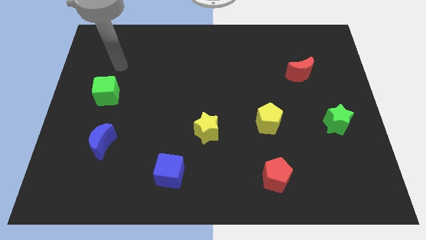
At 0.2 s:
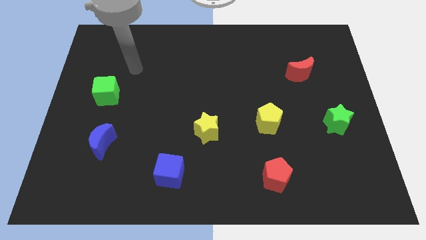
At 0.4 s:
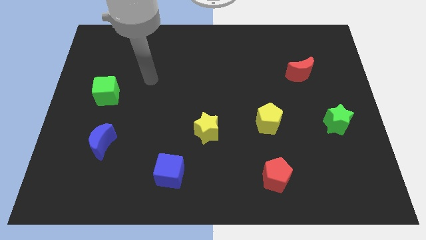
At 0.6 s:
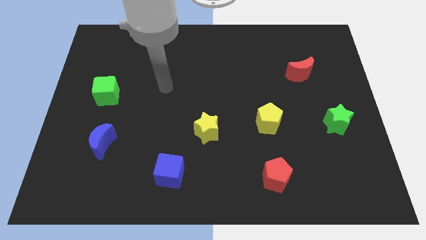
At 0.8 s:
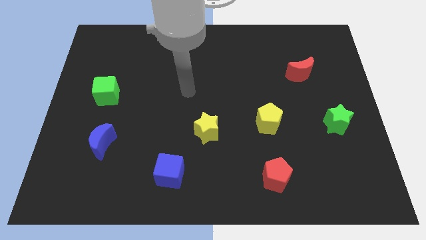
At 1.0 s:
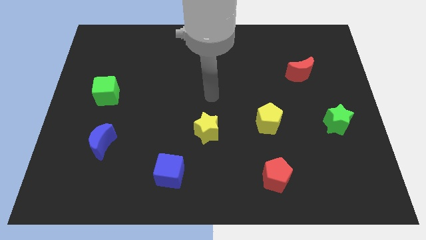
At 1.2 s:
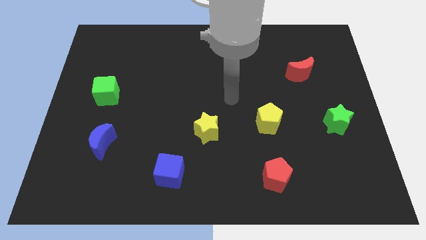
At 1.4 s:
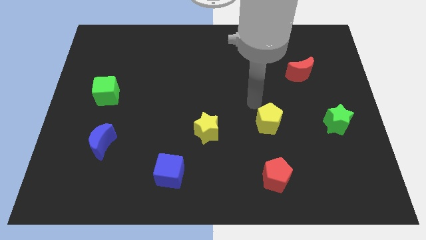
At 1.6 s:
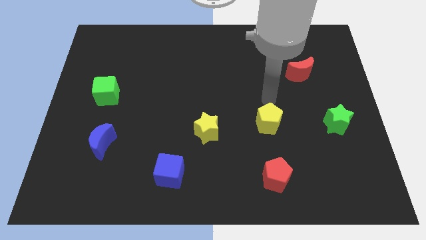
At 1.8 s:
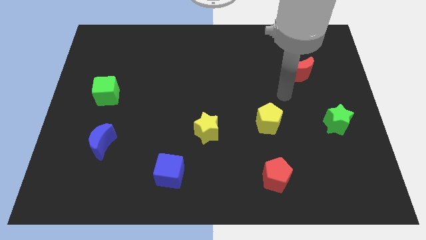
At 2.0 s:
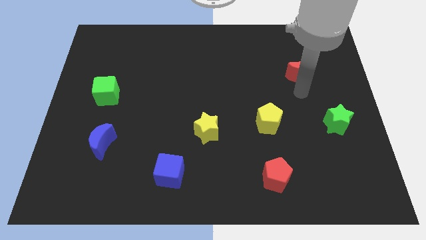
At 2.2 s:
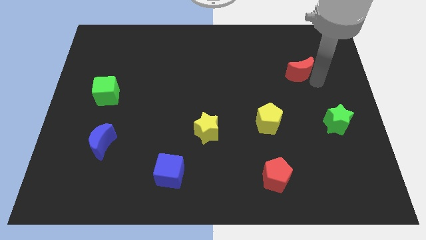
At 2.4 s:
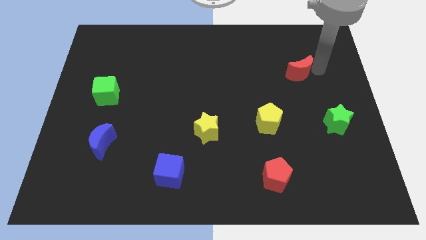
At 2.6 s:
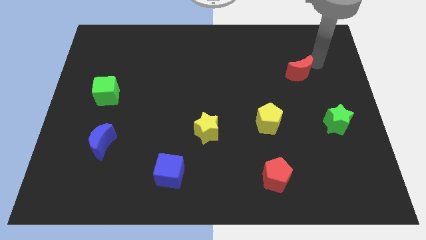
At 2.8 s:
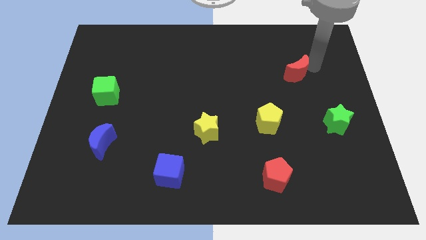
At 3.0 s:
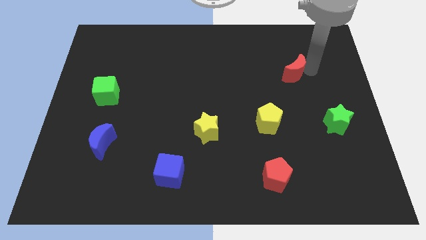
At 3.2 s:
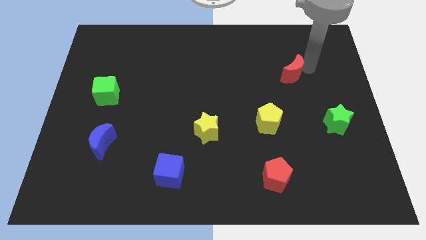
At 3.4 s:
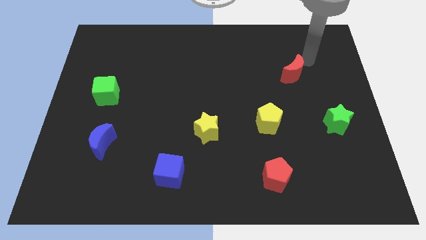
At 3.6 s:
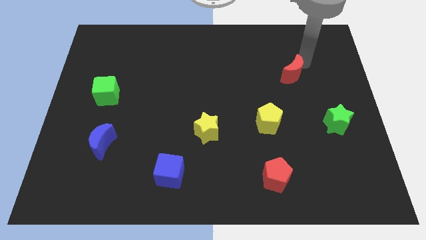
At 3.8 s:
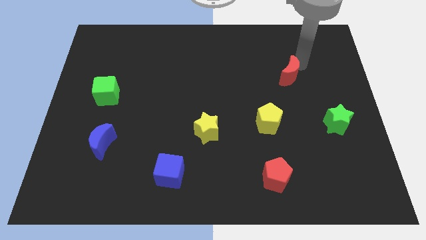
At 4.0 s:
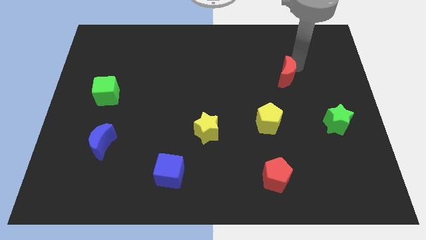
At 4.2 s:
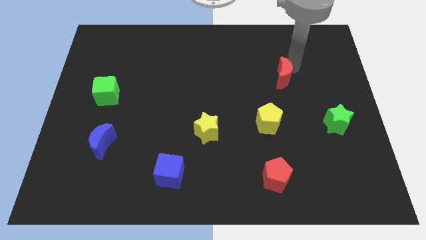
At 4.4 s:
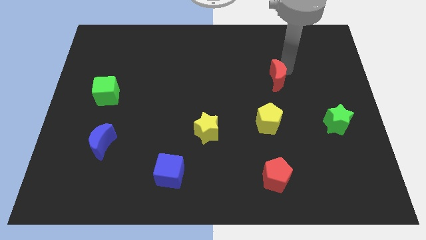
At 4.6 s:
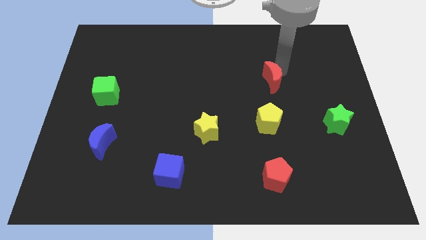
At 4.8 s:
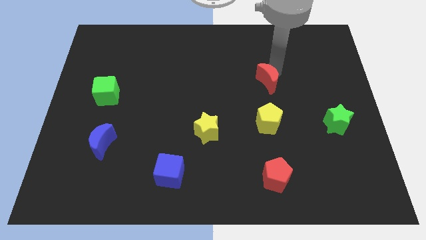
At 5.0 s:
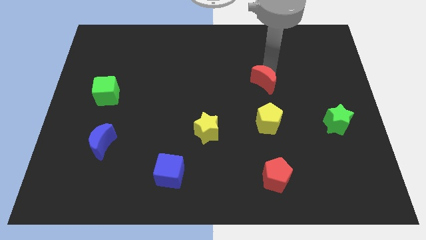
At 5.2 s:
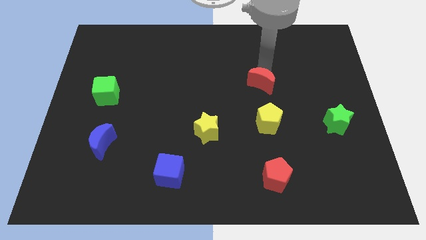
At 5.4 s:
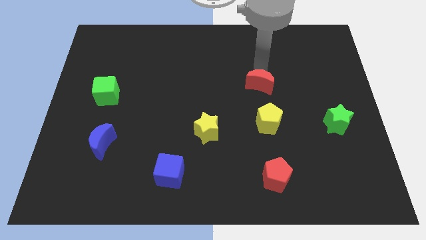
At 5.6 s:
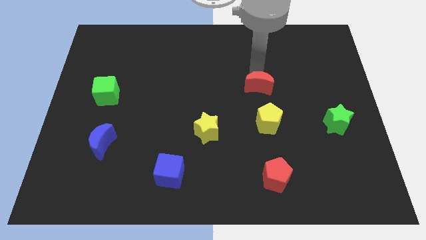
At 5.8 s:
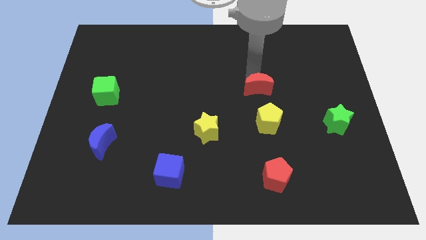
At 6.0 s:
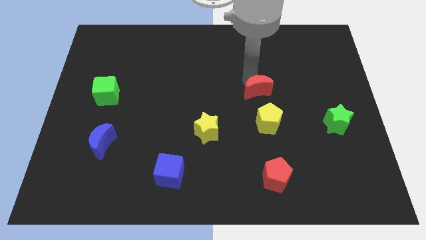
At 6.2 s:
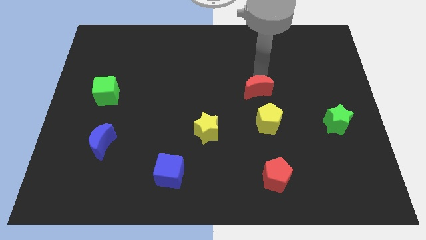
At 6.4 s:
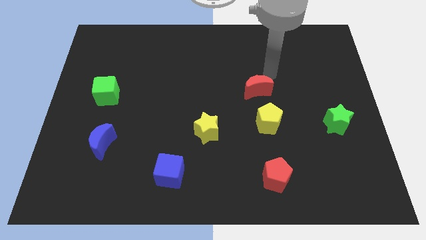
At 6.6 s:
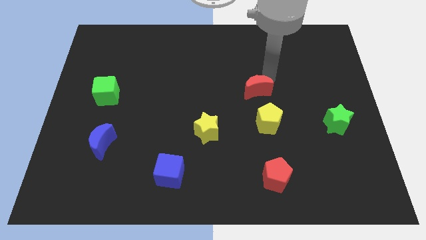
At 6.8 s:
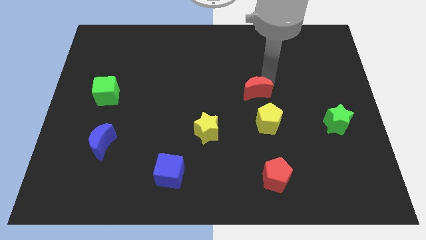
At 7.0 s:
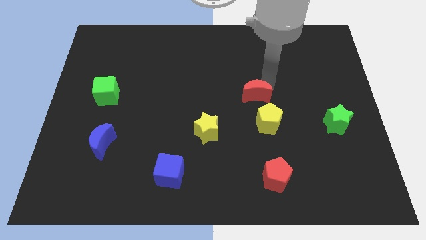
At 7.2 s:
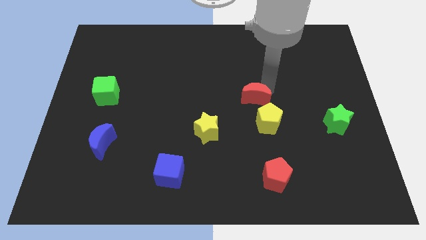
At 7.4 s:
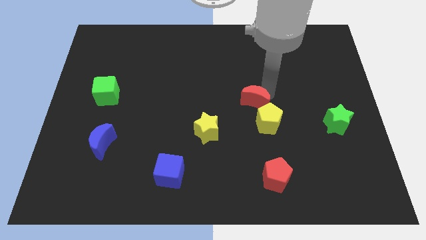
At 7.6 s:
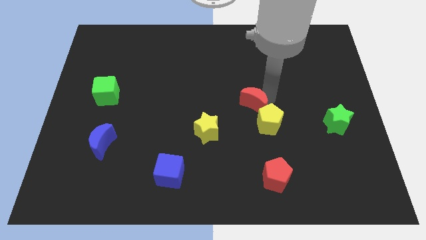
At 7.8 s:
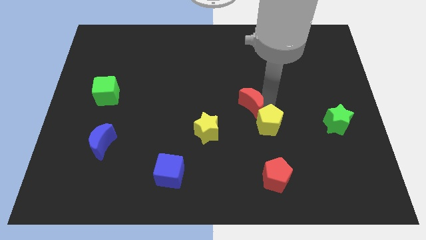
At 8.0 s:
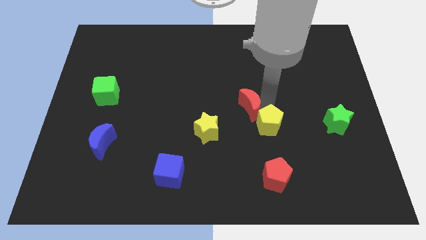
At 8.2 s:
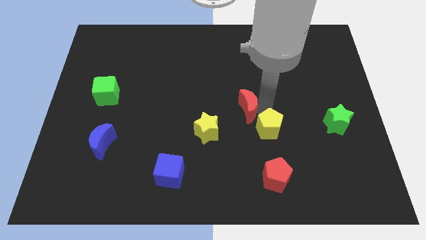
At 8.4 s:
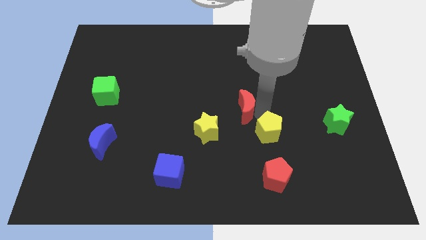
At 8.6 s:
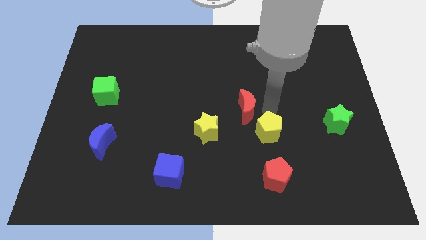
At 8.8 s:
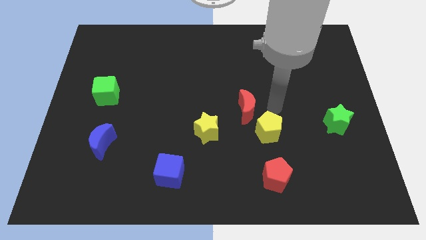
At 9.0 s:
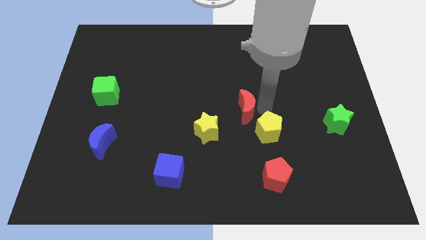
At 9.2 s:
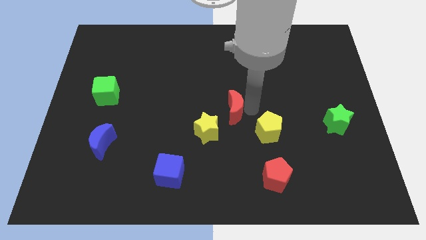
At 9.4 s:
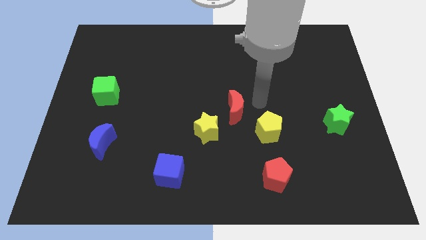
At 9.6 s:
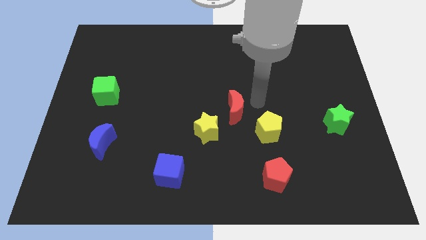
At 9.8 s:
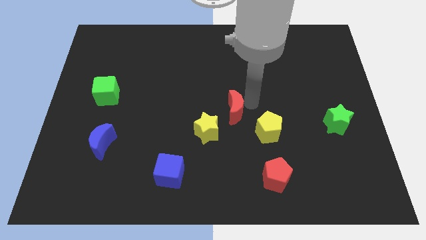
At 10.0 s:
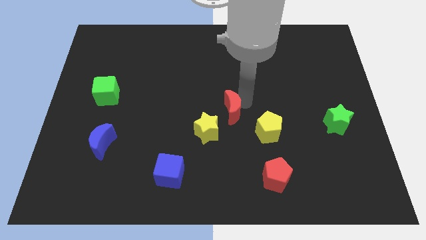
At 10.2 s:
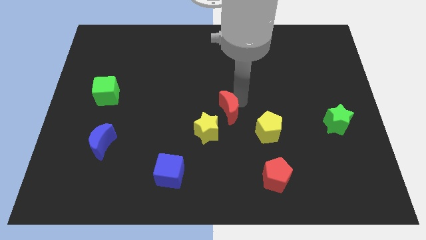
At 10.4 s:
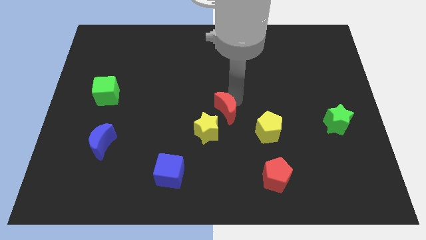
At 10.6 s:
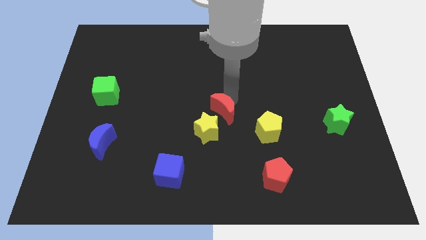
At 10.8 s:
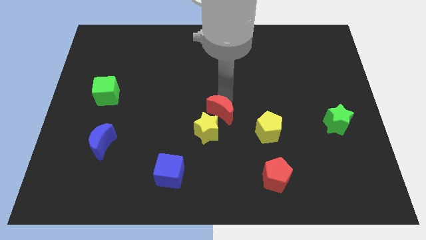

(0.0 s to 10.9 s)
push the red moon next to the yellow star

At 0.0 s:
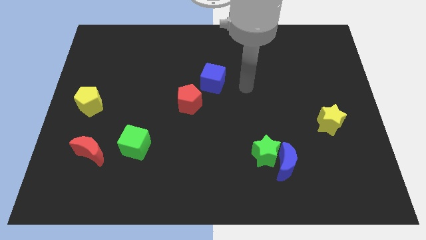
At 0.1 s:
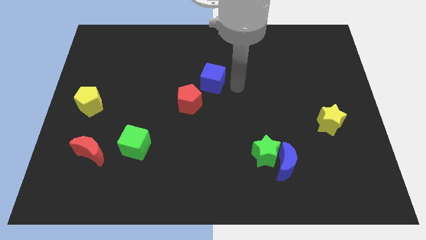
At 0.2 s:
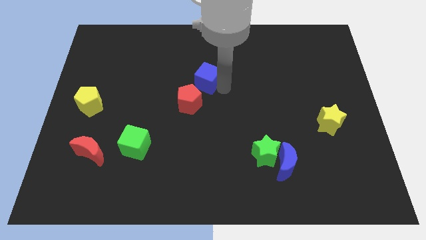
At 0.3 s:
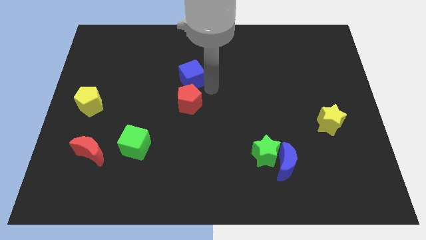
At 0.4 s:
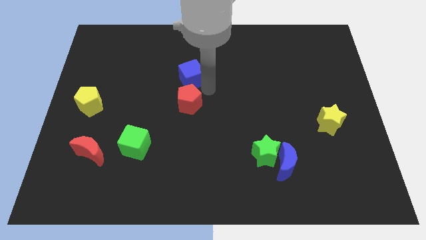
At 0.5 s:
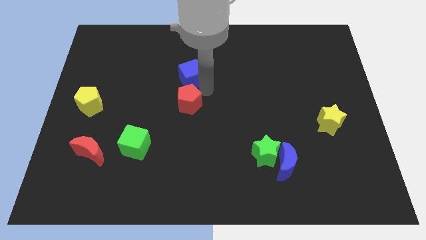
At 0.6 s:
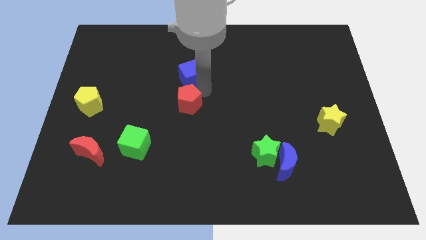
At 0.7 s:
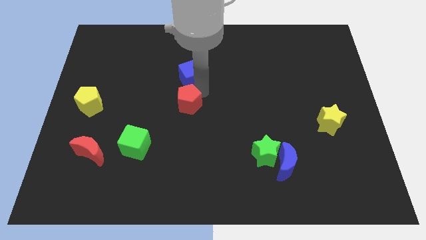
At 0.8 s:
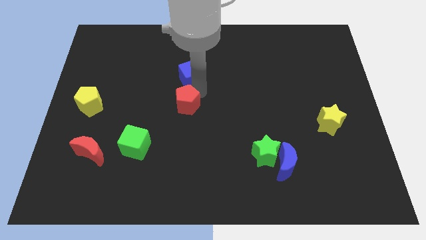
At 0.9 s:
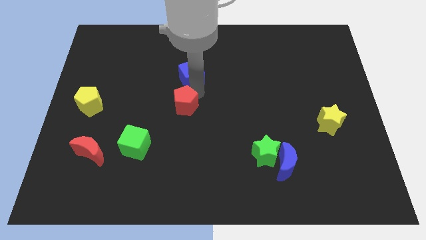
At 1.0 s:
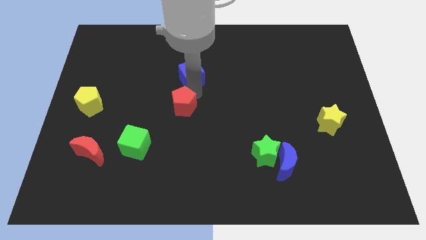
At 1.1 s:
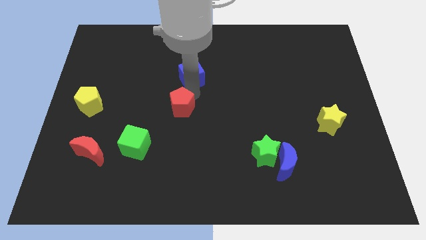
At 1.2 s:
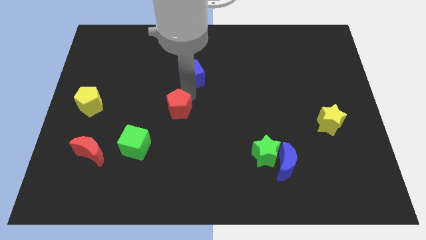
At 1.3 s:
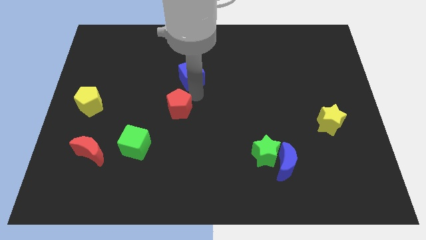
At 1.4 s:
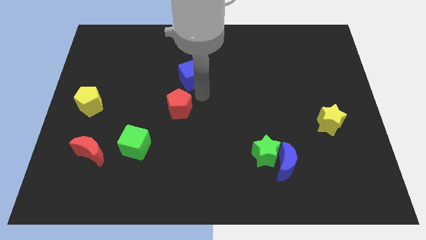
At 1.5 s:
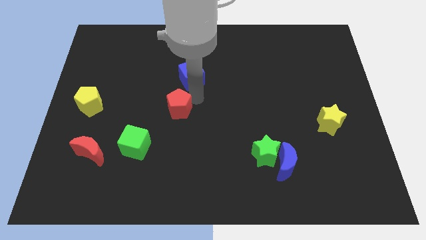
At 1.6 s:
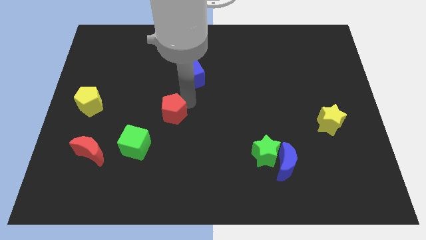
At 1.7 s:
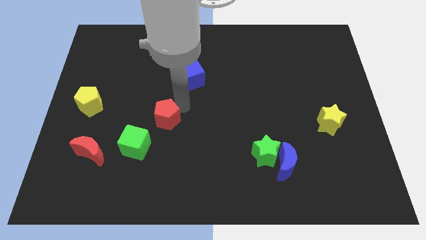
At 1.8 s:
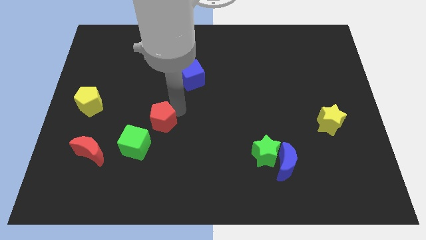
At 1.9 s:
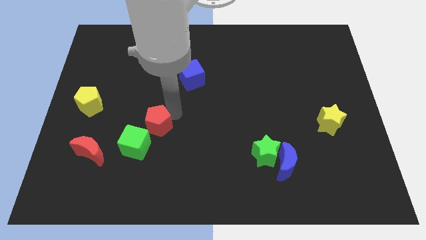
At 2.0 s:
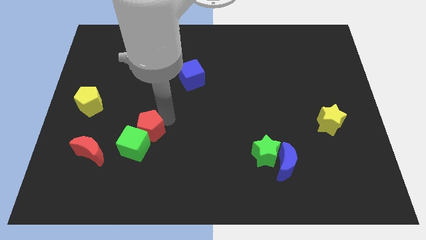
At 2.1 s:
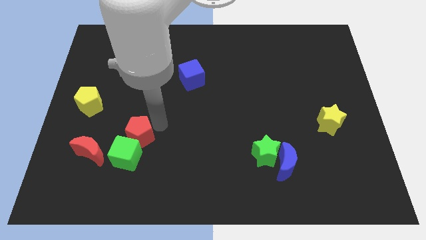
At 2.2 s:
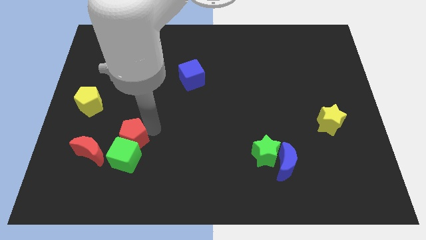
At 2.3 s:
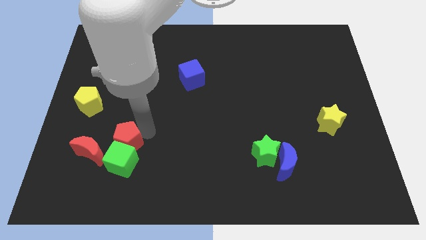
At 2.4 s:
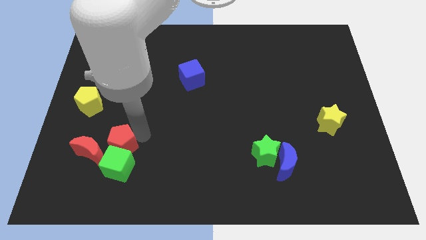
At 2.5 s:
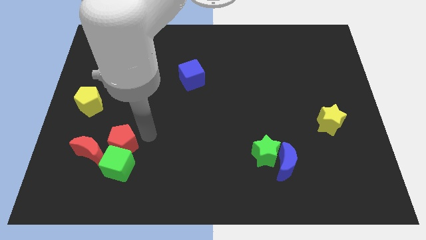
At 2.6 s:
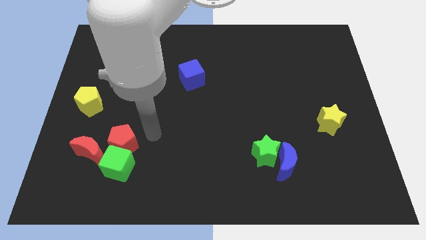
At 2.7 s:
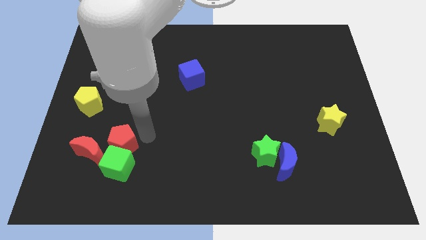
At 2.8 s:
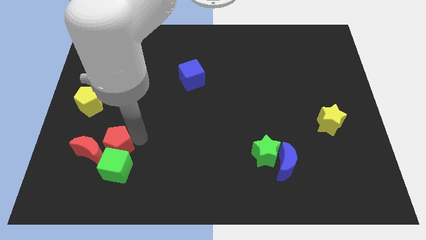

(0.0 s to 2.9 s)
push the red pentagon next to the red moon
